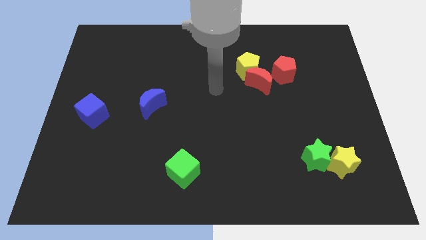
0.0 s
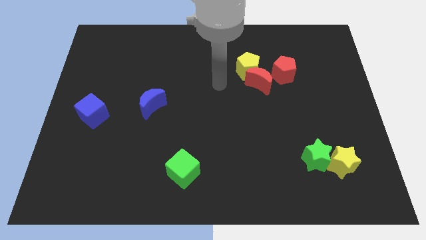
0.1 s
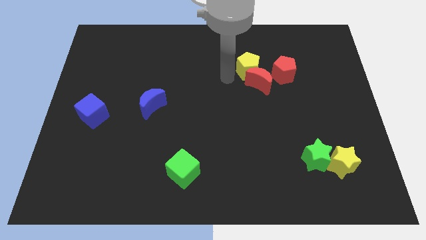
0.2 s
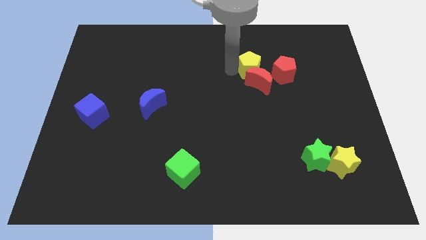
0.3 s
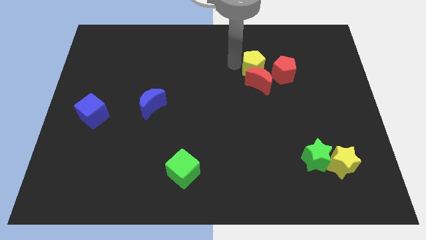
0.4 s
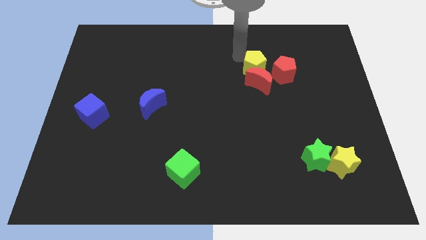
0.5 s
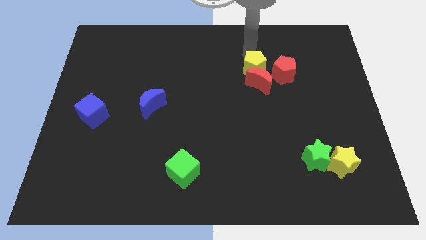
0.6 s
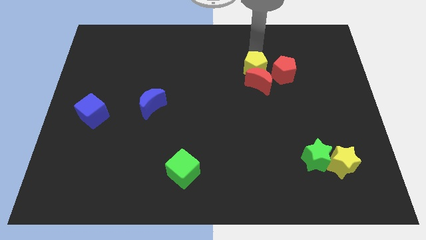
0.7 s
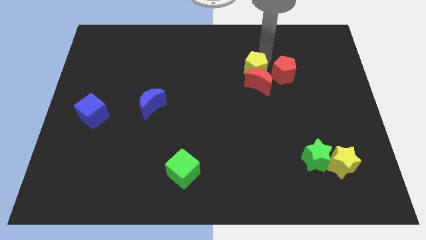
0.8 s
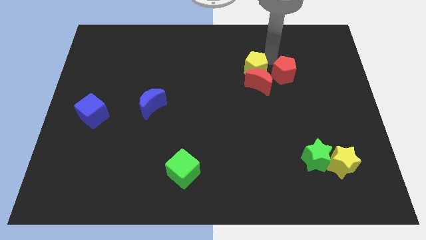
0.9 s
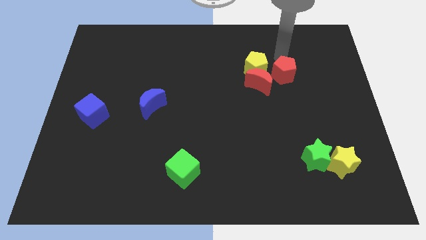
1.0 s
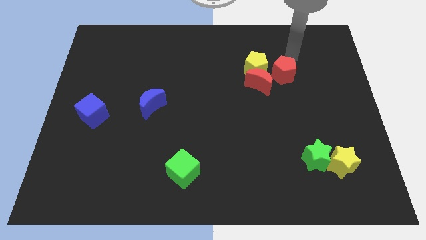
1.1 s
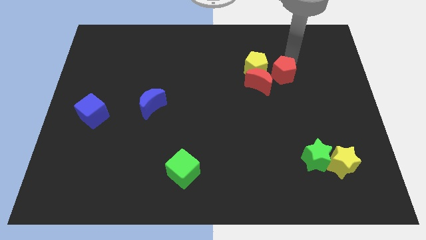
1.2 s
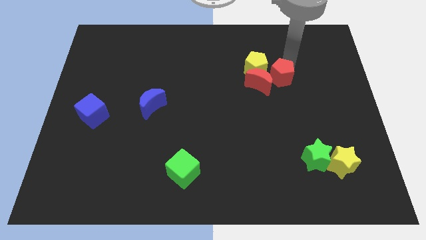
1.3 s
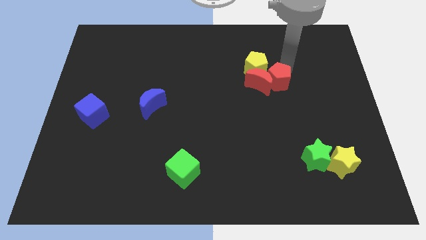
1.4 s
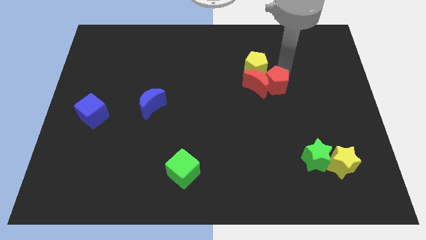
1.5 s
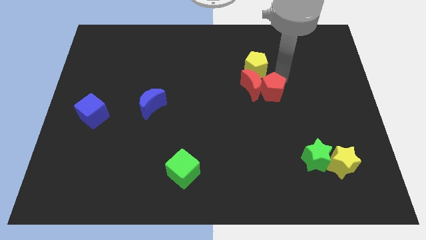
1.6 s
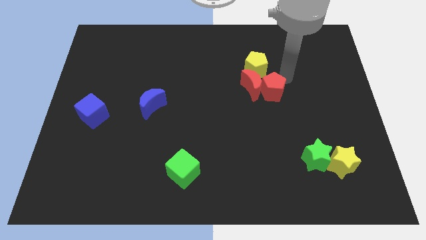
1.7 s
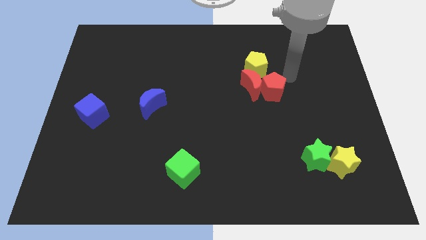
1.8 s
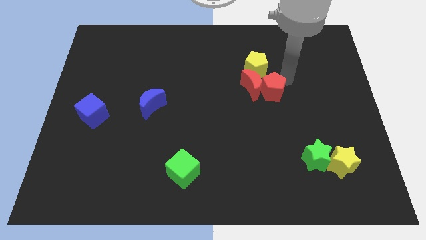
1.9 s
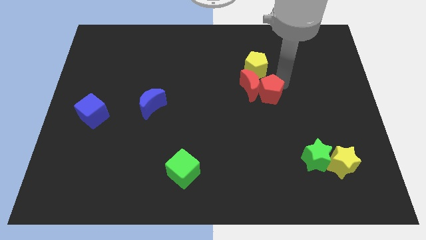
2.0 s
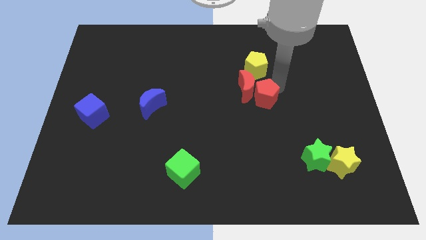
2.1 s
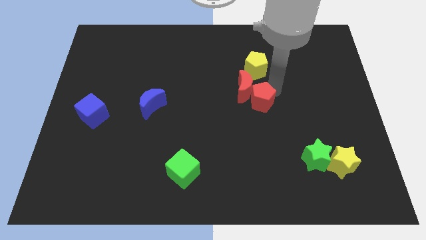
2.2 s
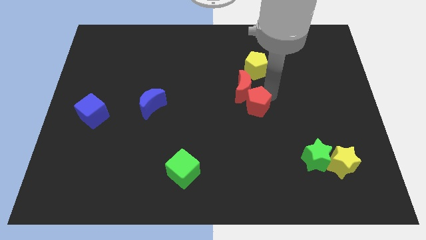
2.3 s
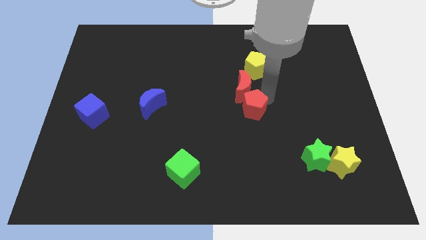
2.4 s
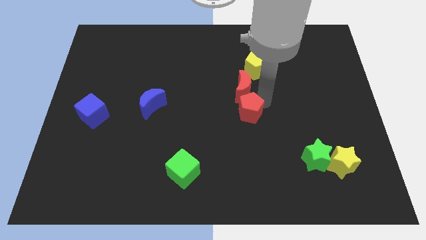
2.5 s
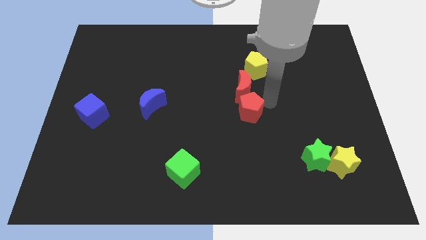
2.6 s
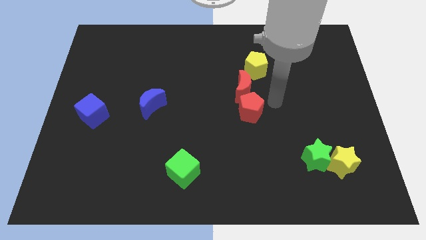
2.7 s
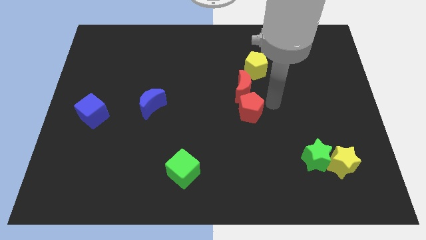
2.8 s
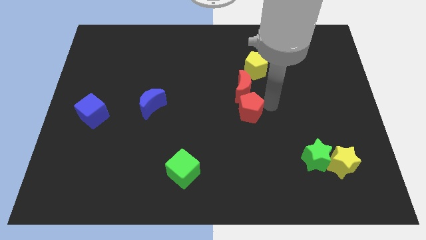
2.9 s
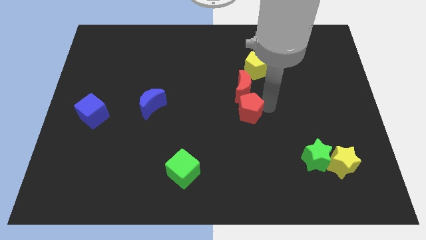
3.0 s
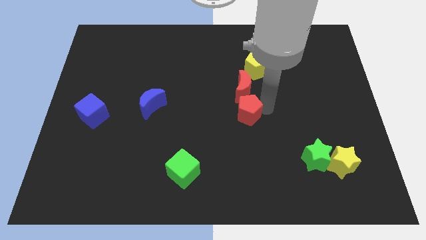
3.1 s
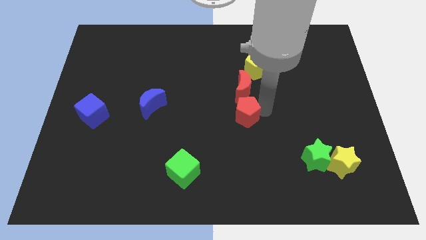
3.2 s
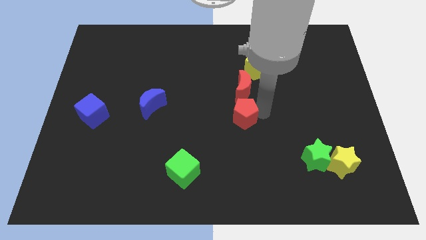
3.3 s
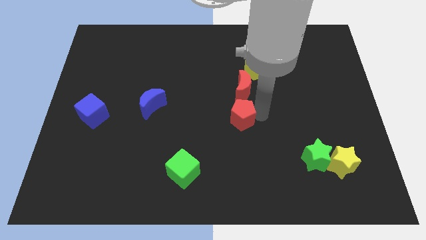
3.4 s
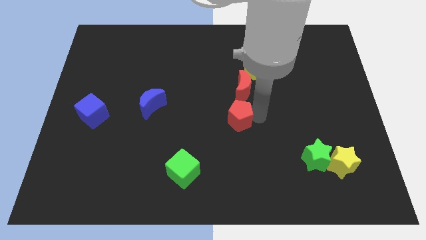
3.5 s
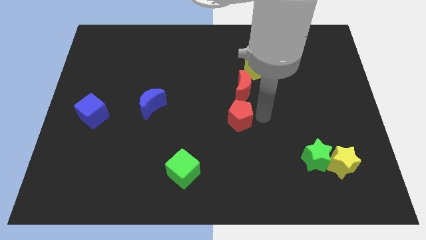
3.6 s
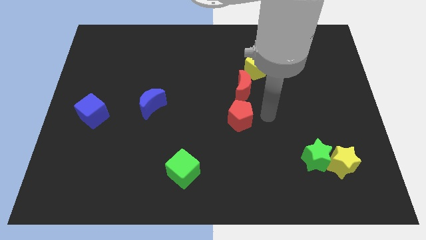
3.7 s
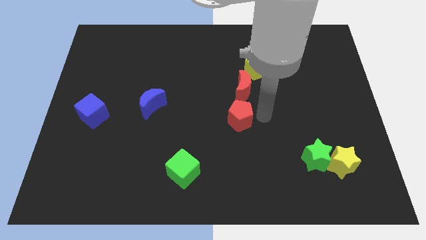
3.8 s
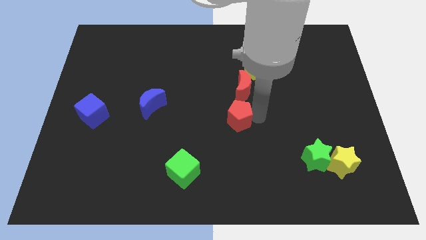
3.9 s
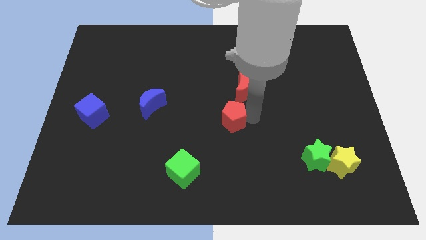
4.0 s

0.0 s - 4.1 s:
move the red pentagon down and then left

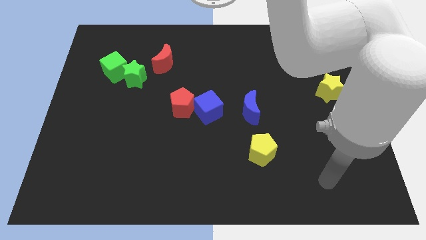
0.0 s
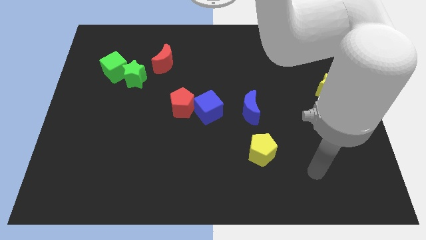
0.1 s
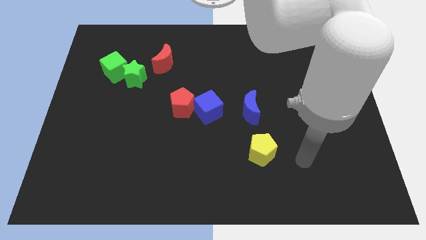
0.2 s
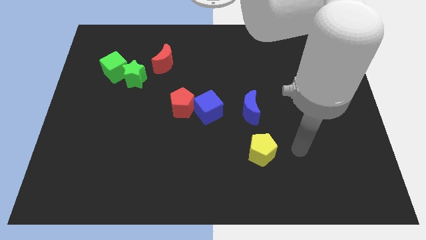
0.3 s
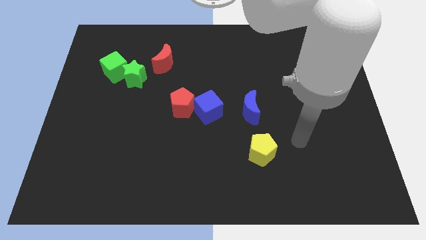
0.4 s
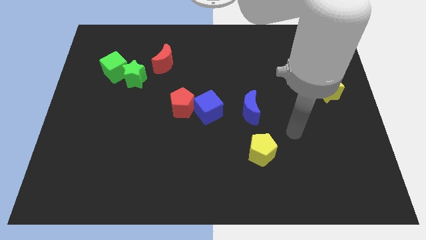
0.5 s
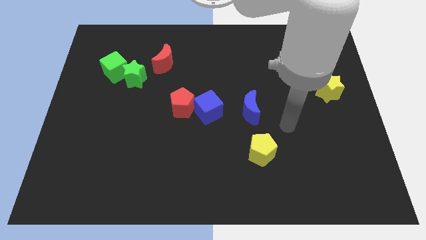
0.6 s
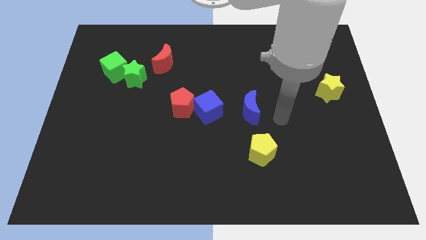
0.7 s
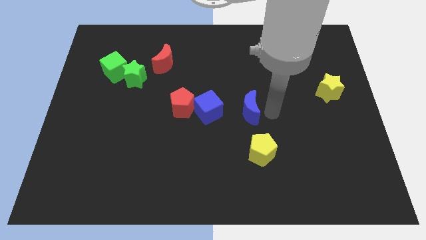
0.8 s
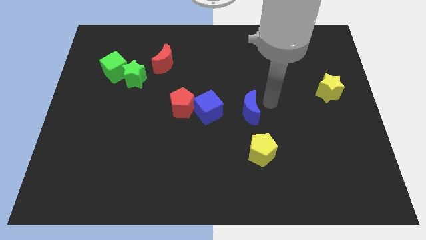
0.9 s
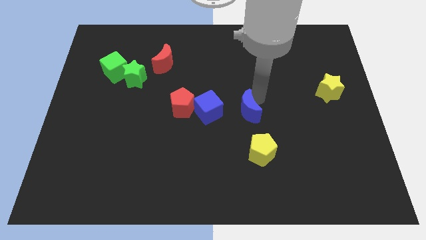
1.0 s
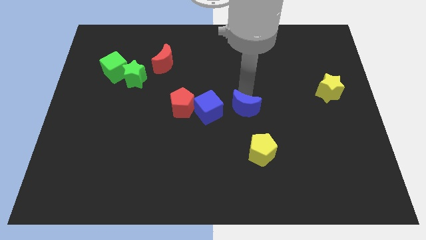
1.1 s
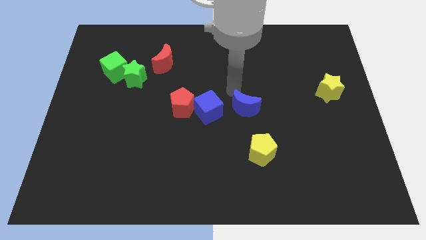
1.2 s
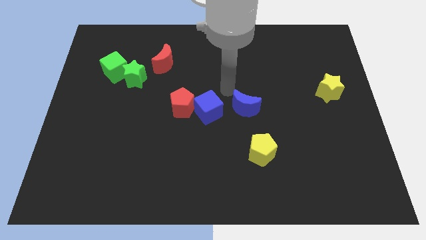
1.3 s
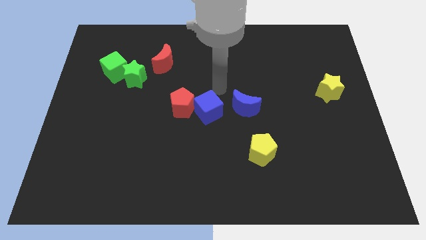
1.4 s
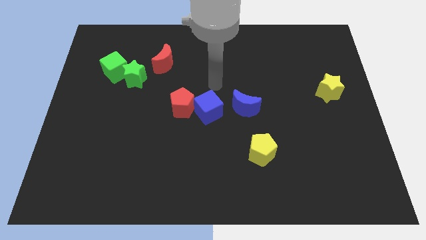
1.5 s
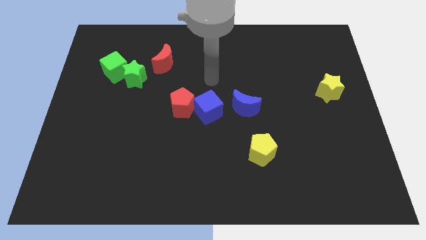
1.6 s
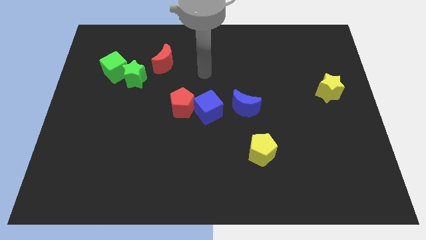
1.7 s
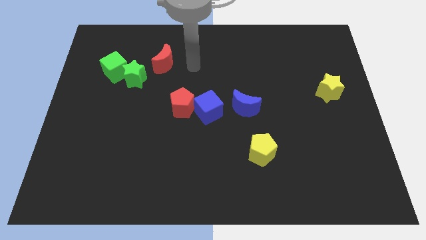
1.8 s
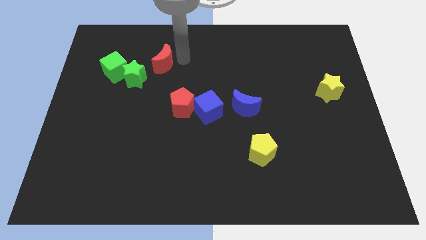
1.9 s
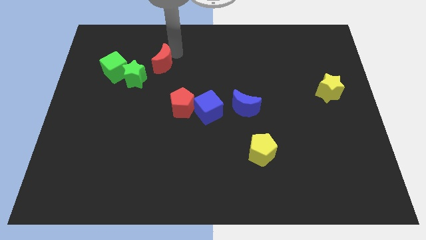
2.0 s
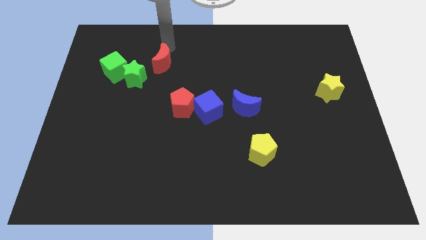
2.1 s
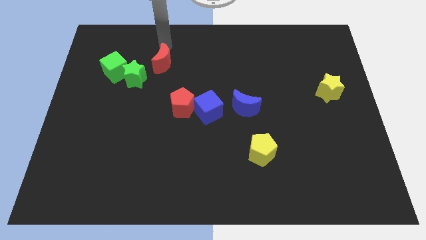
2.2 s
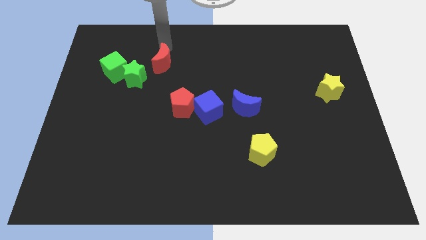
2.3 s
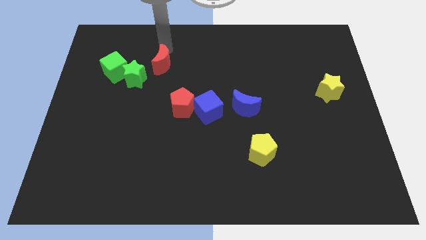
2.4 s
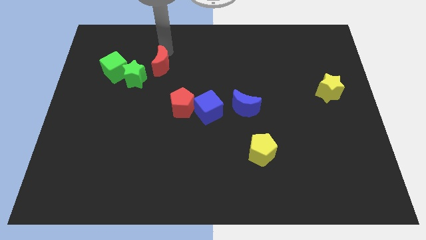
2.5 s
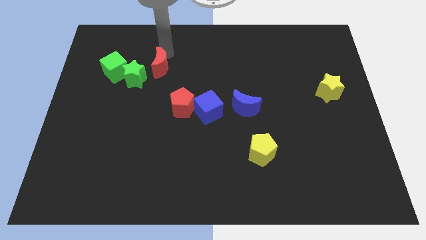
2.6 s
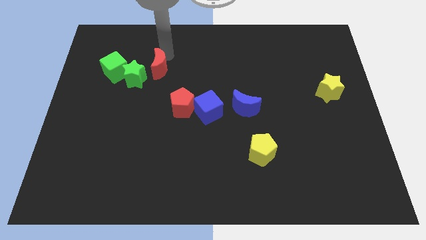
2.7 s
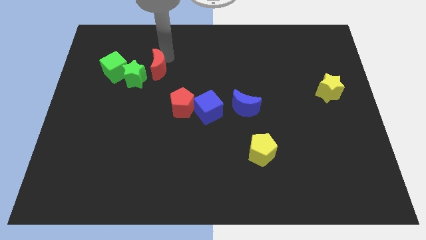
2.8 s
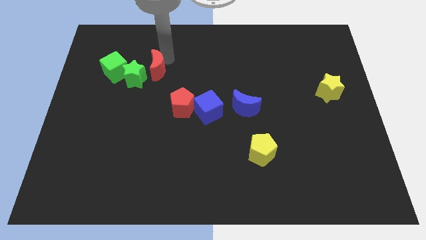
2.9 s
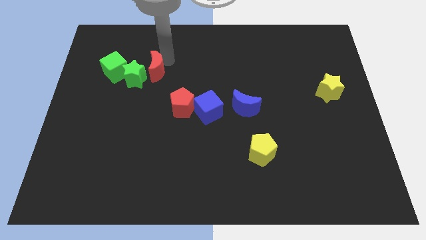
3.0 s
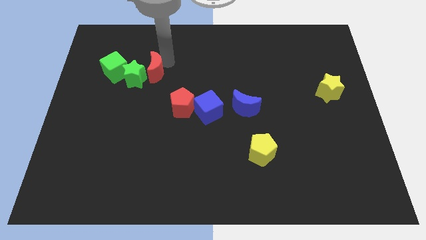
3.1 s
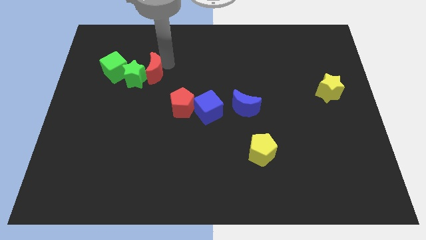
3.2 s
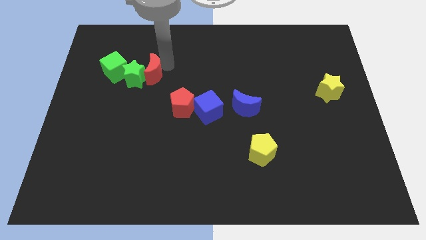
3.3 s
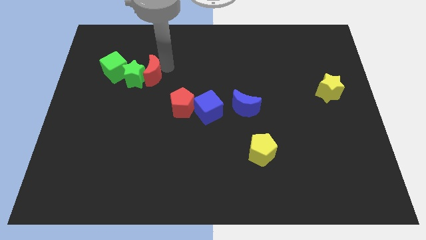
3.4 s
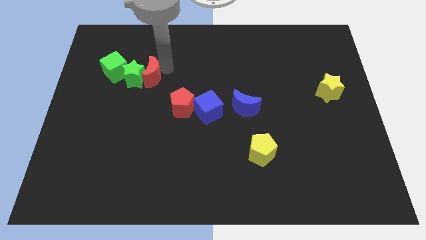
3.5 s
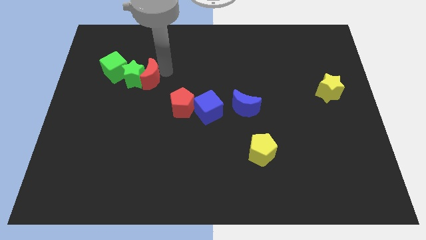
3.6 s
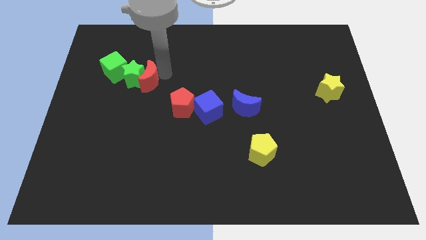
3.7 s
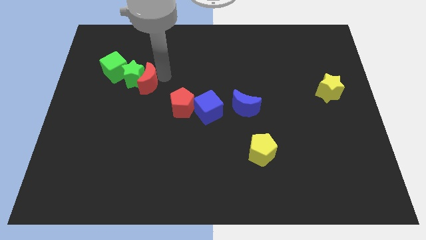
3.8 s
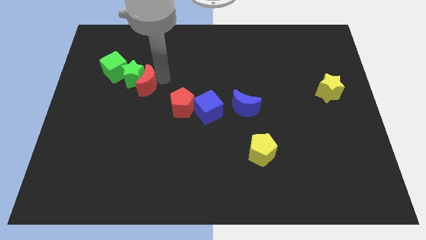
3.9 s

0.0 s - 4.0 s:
move the red moon somewhat downwards

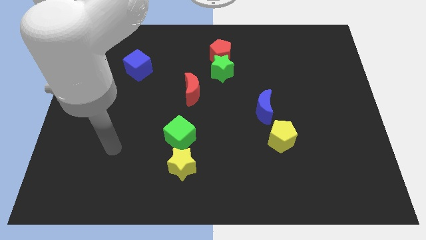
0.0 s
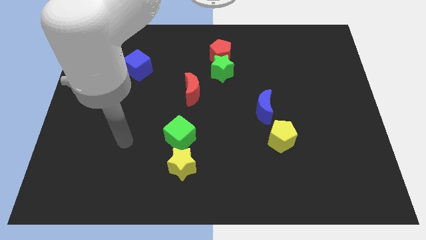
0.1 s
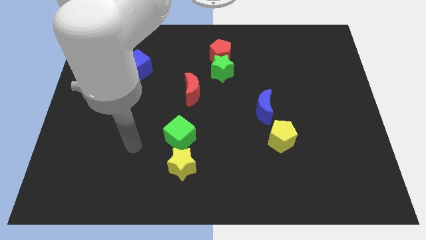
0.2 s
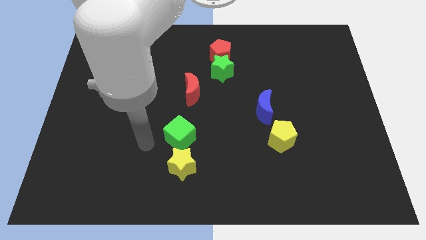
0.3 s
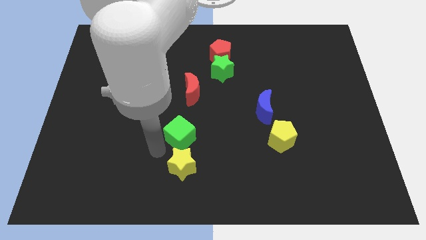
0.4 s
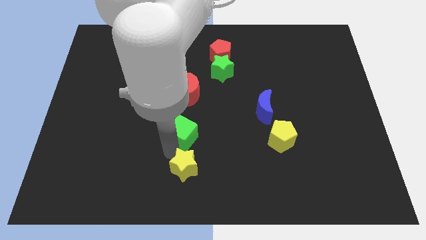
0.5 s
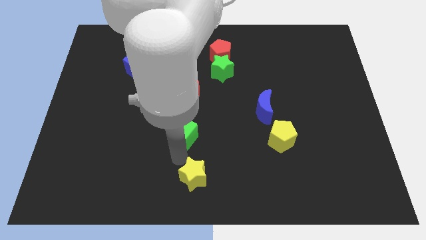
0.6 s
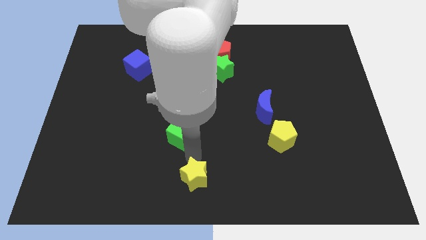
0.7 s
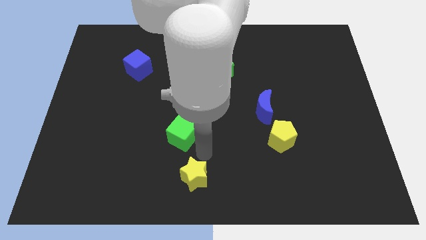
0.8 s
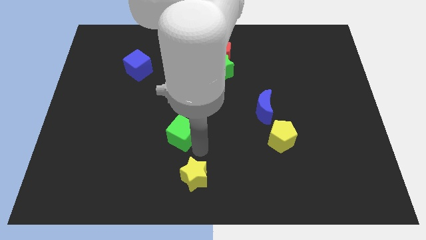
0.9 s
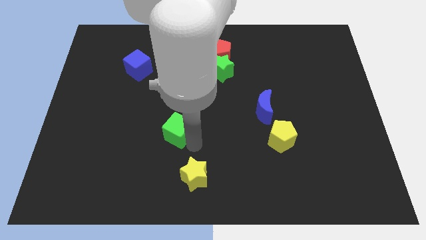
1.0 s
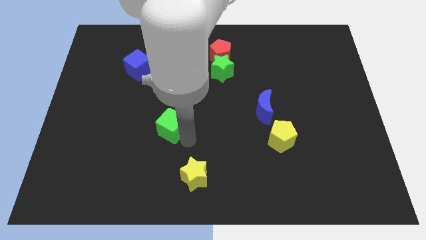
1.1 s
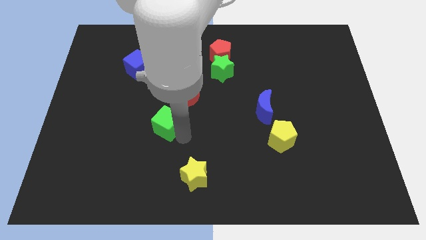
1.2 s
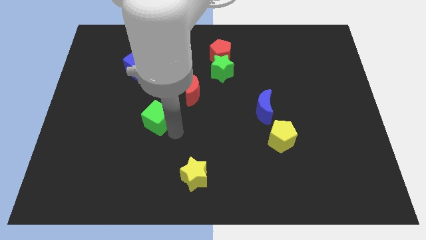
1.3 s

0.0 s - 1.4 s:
slide the green cube a little upwards and to the left
